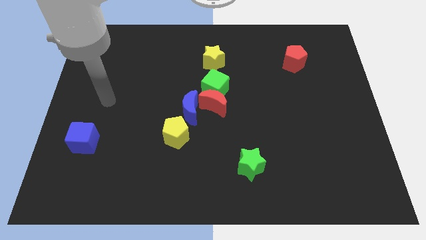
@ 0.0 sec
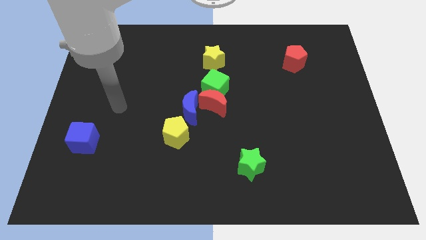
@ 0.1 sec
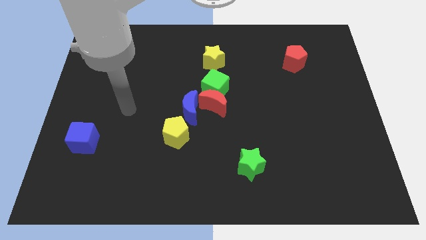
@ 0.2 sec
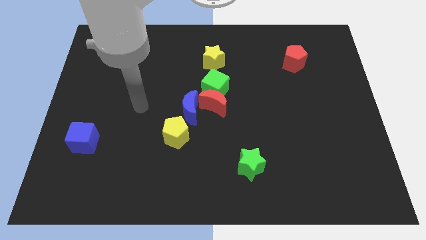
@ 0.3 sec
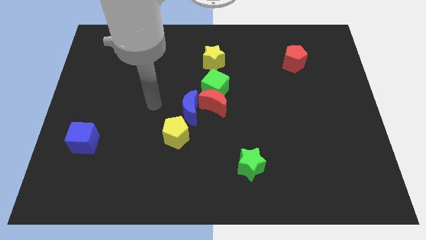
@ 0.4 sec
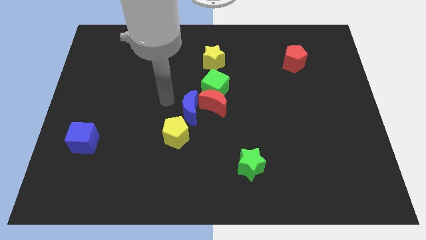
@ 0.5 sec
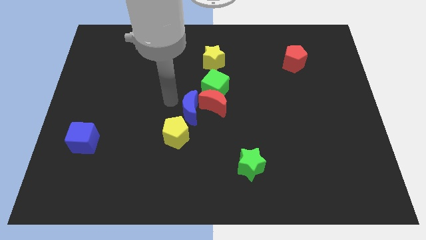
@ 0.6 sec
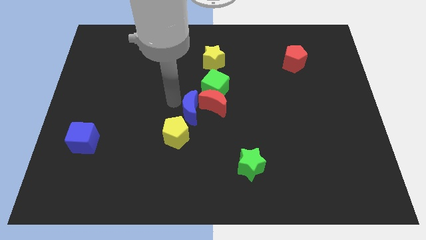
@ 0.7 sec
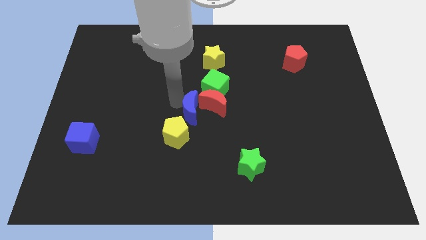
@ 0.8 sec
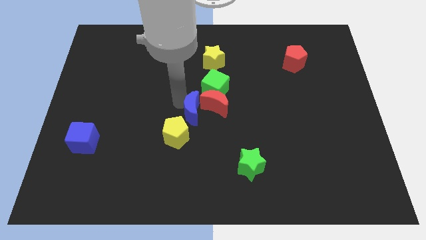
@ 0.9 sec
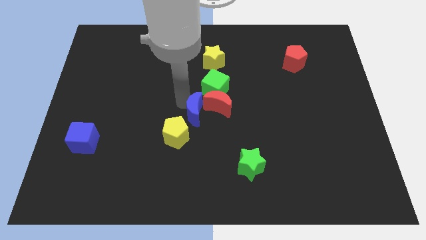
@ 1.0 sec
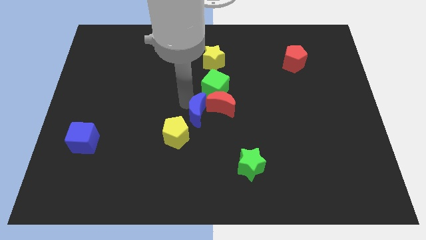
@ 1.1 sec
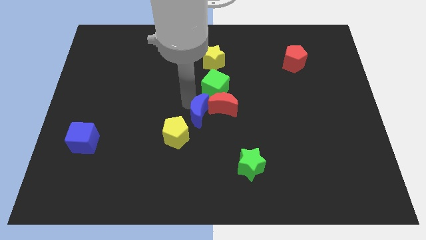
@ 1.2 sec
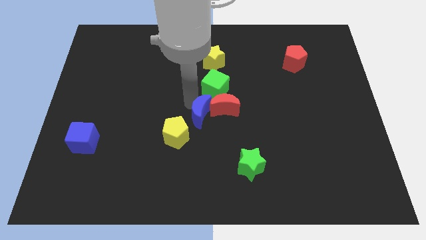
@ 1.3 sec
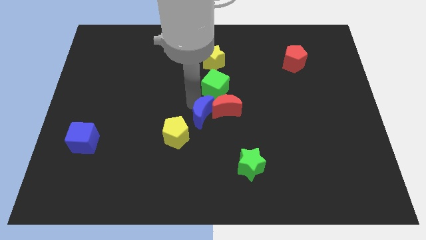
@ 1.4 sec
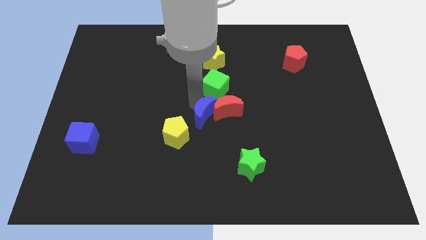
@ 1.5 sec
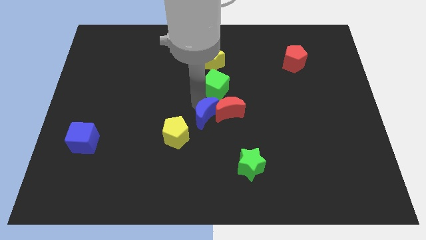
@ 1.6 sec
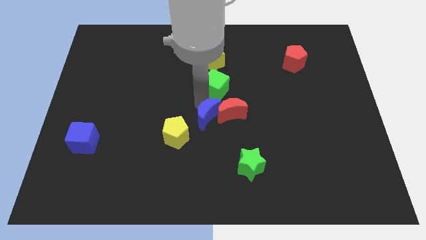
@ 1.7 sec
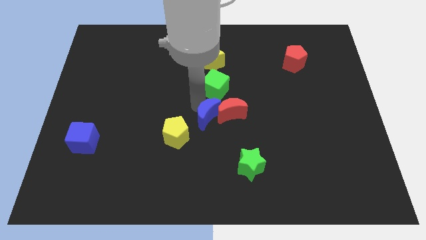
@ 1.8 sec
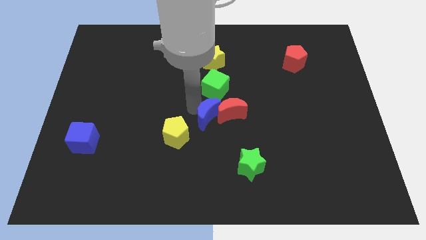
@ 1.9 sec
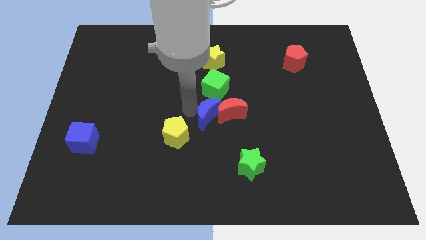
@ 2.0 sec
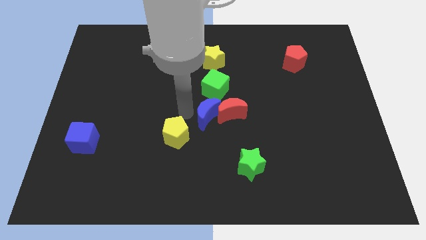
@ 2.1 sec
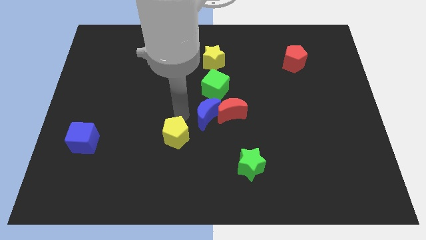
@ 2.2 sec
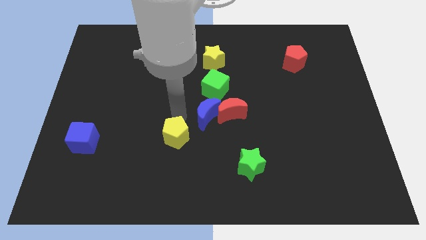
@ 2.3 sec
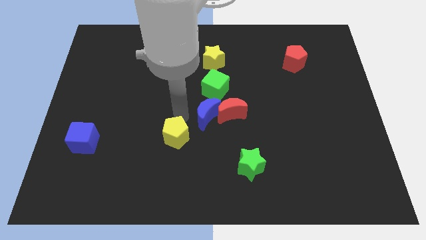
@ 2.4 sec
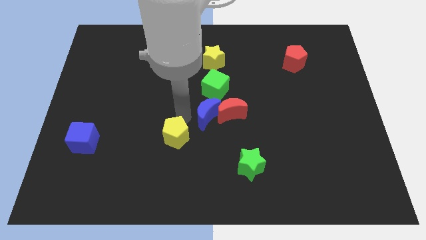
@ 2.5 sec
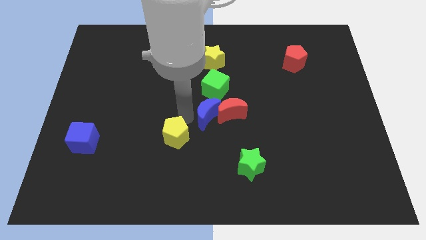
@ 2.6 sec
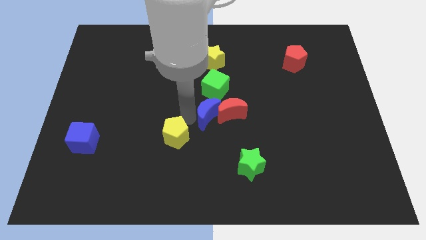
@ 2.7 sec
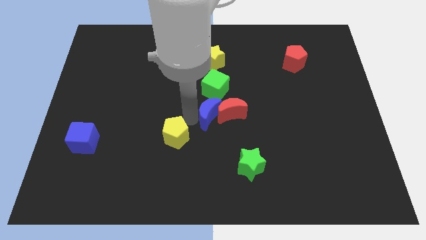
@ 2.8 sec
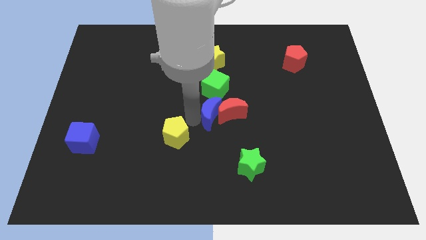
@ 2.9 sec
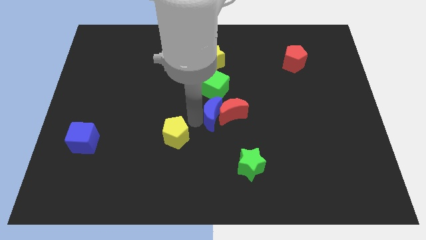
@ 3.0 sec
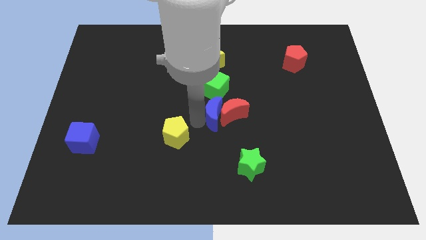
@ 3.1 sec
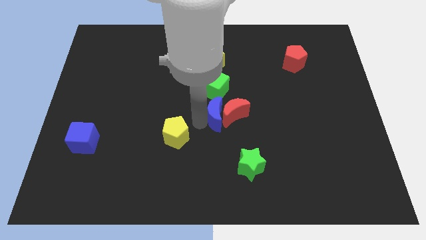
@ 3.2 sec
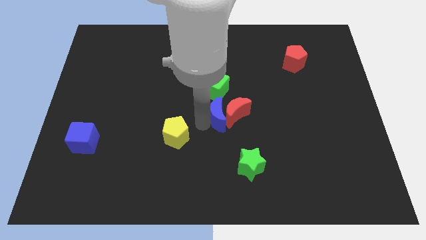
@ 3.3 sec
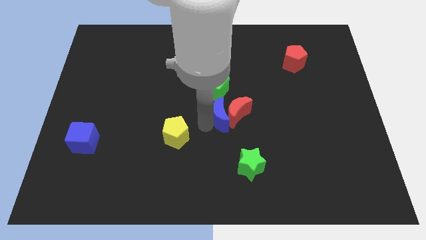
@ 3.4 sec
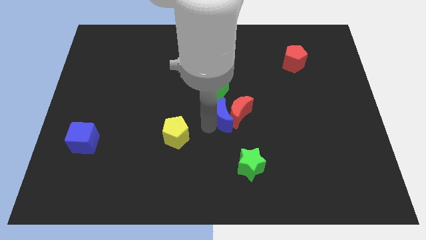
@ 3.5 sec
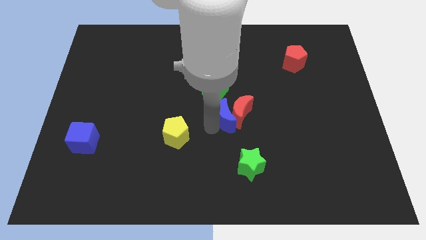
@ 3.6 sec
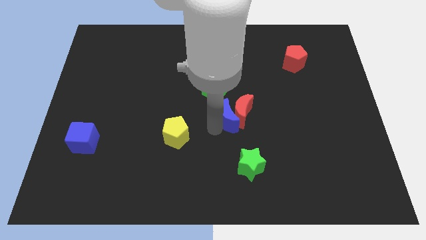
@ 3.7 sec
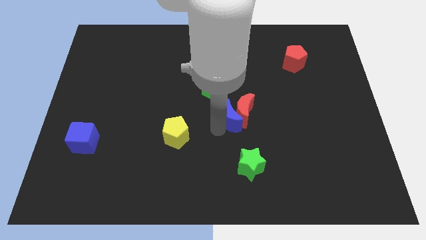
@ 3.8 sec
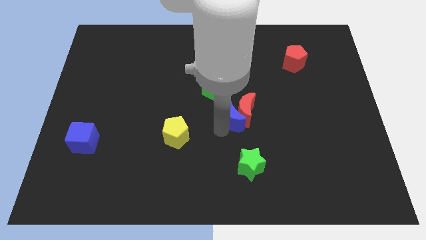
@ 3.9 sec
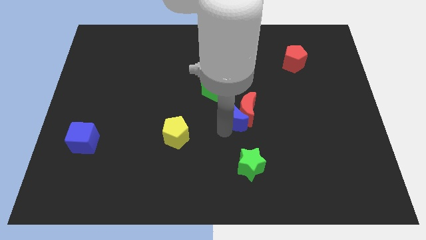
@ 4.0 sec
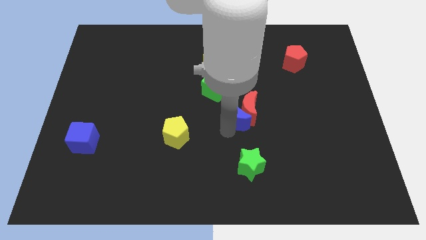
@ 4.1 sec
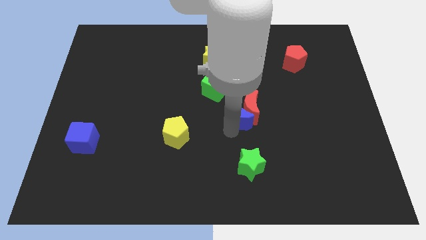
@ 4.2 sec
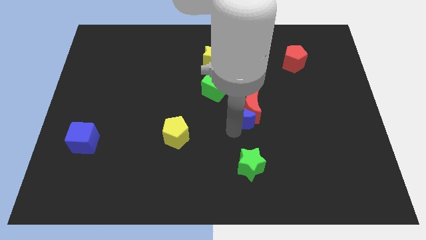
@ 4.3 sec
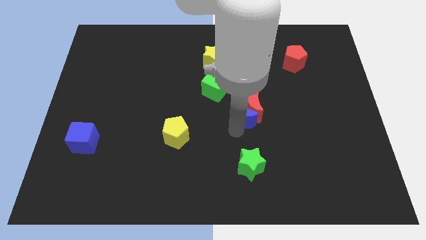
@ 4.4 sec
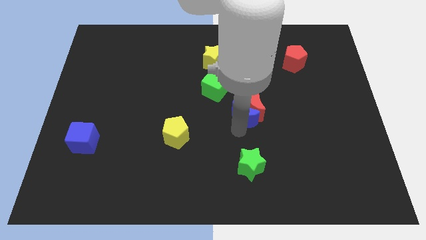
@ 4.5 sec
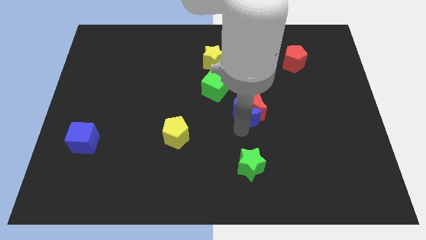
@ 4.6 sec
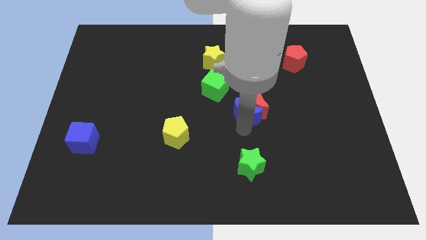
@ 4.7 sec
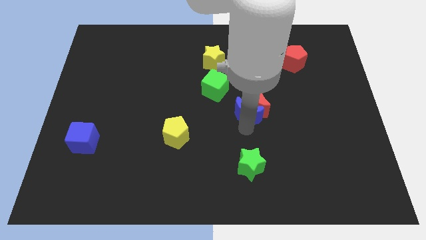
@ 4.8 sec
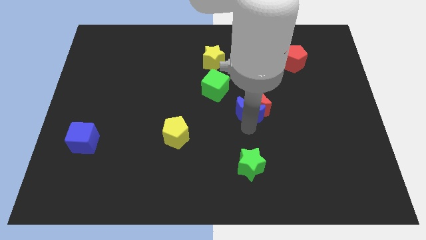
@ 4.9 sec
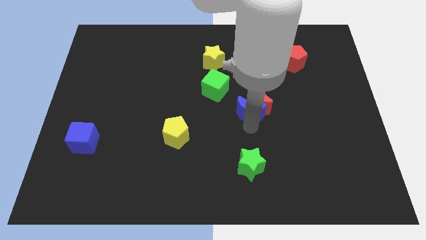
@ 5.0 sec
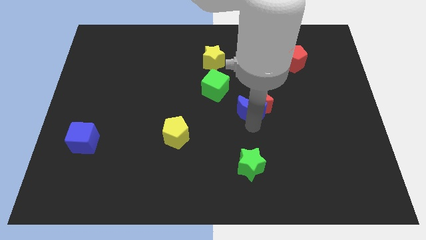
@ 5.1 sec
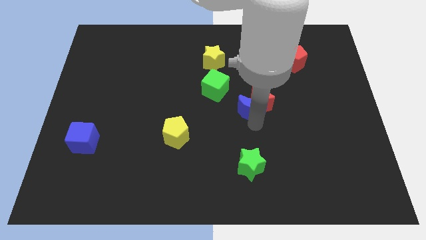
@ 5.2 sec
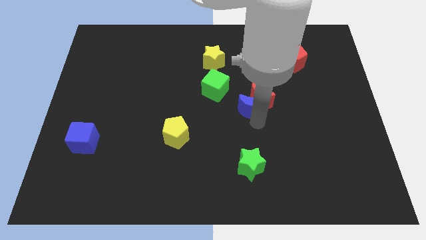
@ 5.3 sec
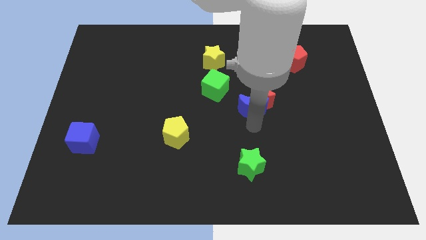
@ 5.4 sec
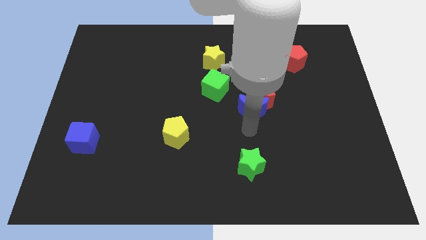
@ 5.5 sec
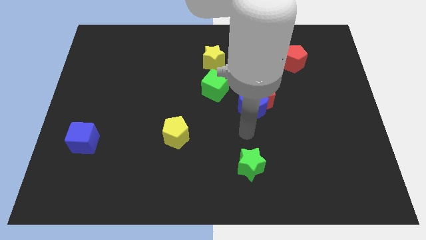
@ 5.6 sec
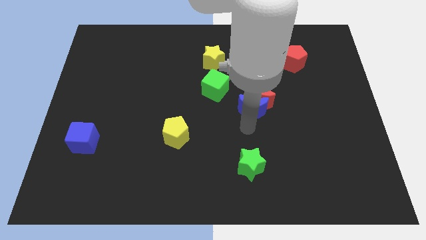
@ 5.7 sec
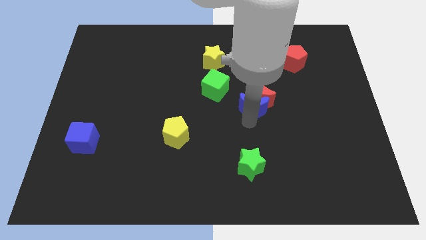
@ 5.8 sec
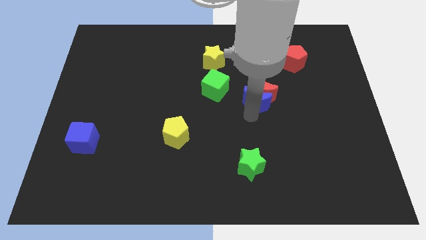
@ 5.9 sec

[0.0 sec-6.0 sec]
put the blue moon just right of the green cube
